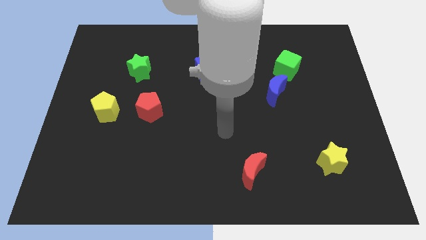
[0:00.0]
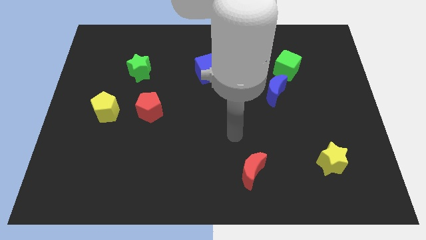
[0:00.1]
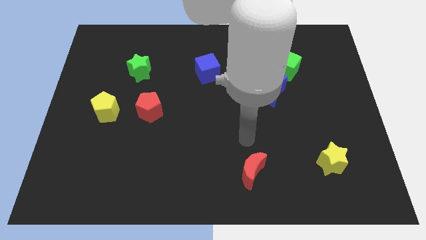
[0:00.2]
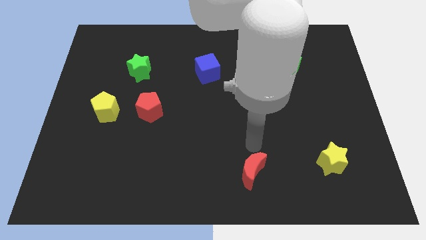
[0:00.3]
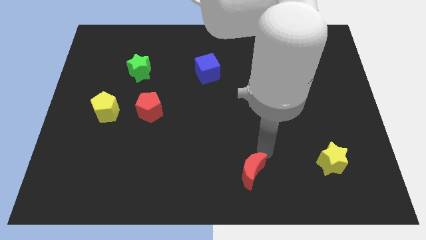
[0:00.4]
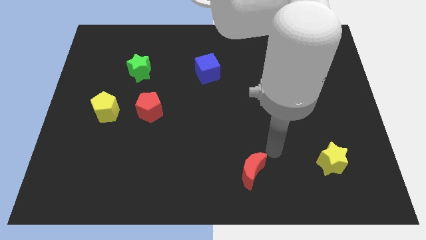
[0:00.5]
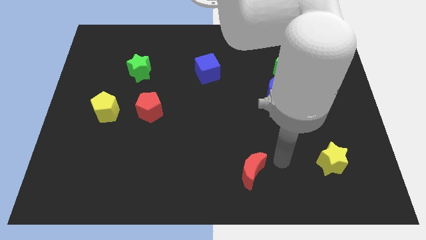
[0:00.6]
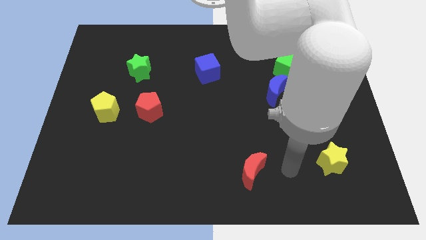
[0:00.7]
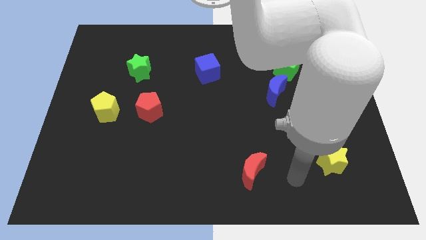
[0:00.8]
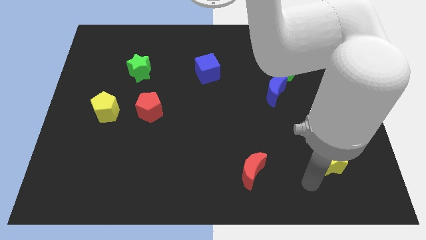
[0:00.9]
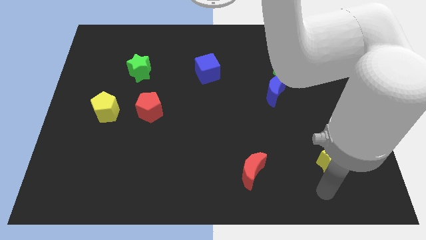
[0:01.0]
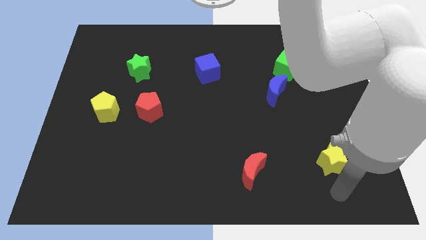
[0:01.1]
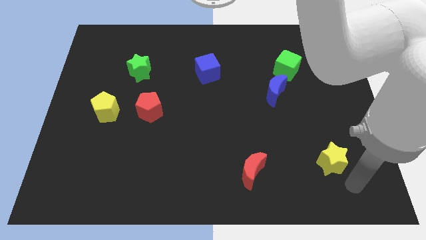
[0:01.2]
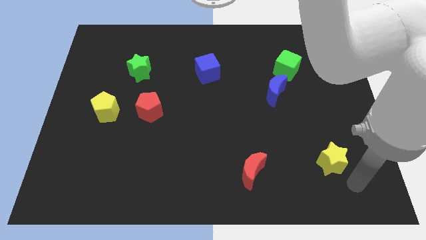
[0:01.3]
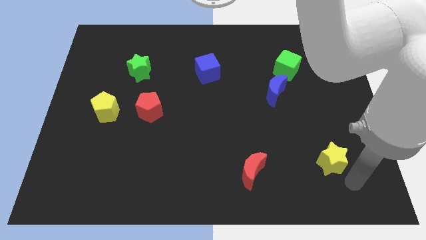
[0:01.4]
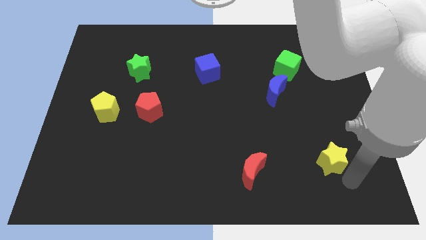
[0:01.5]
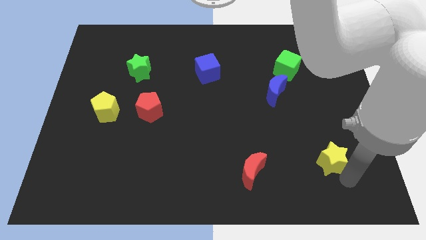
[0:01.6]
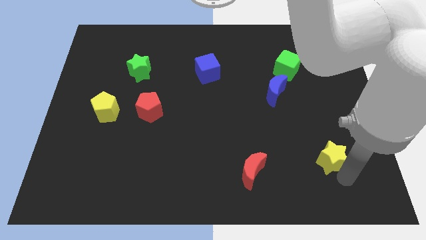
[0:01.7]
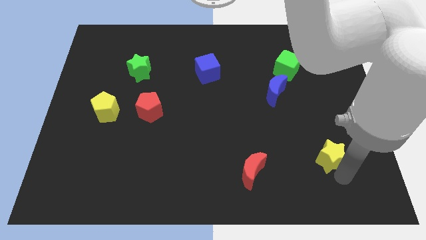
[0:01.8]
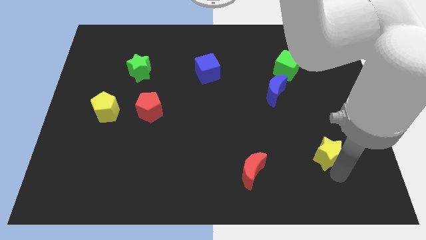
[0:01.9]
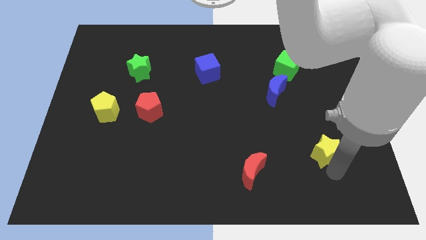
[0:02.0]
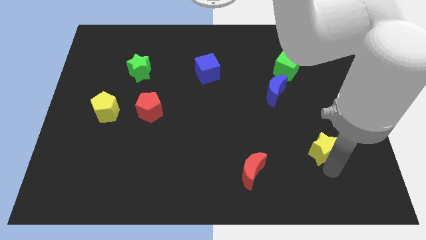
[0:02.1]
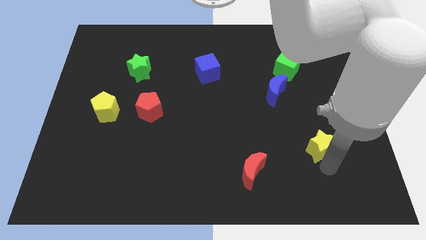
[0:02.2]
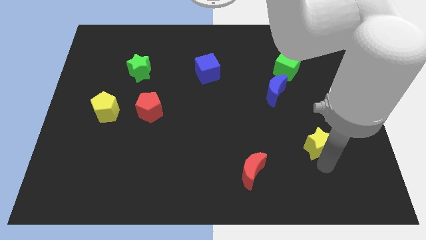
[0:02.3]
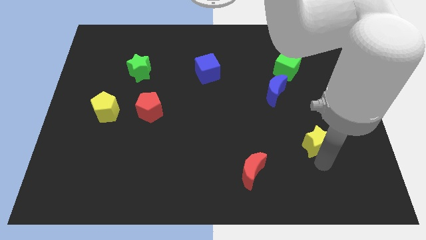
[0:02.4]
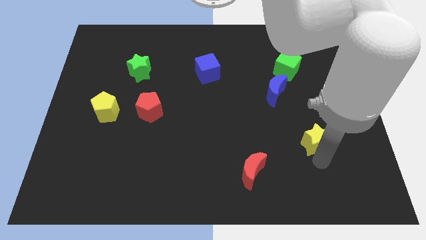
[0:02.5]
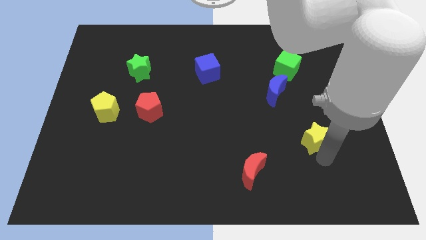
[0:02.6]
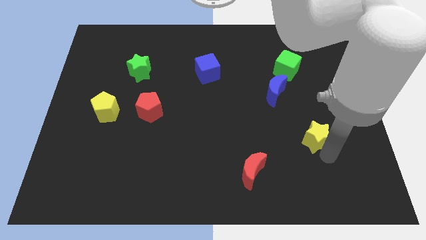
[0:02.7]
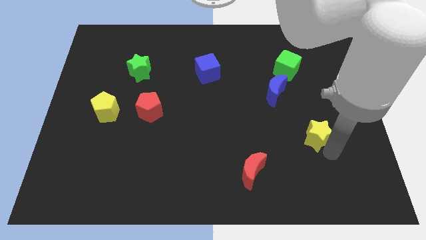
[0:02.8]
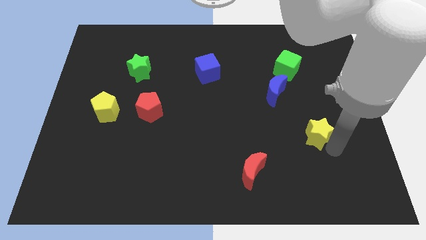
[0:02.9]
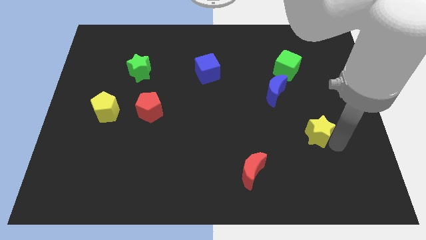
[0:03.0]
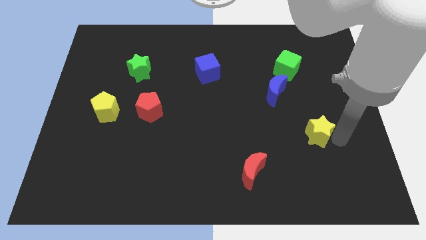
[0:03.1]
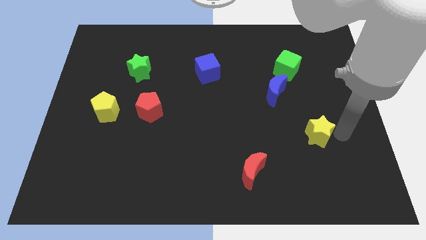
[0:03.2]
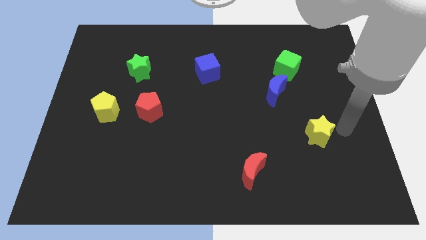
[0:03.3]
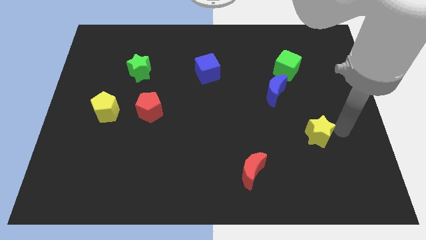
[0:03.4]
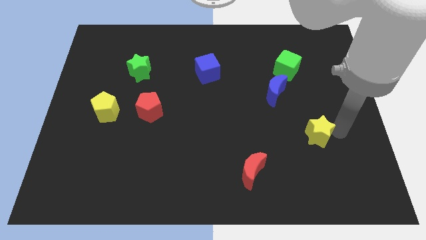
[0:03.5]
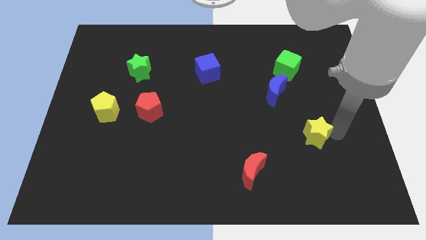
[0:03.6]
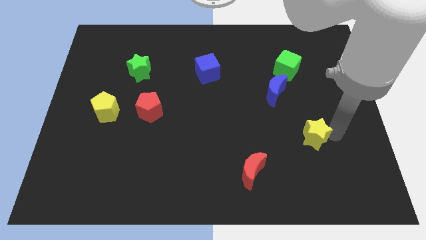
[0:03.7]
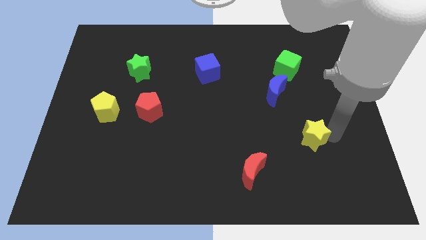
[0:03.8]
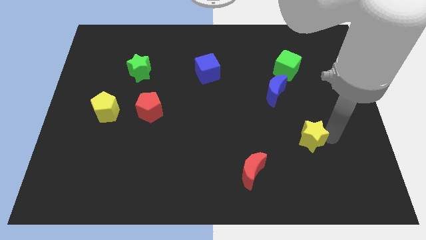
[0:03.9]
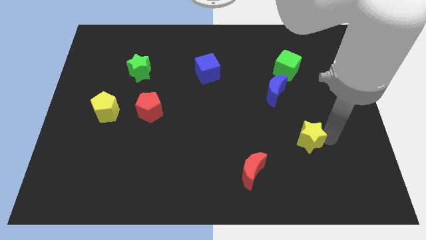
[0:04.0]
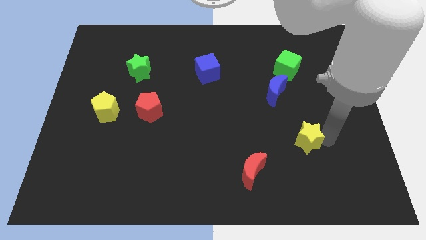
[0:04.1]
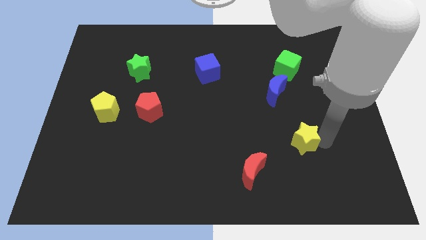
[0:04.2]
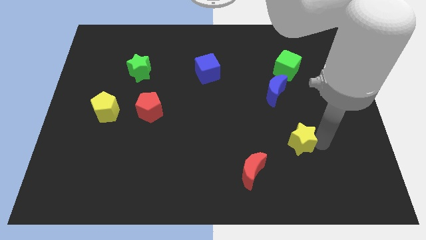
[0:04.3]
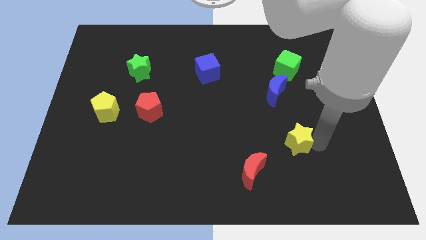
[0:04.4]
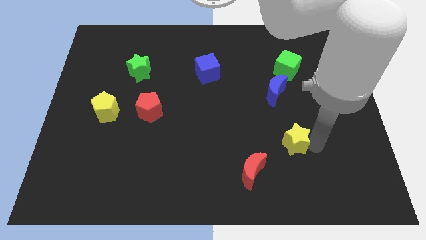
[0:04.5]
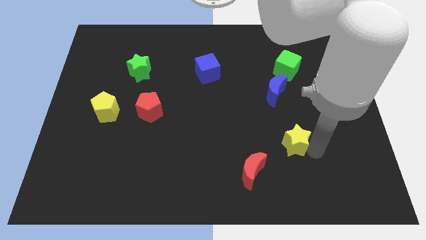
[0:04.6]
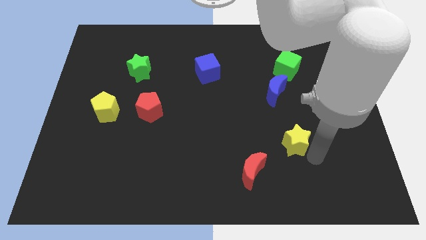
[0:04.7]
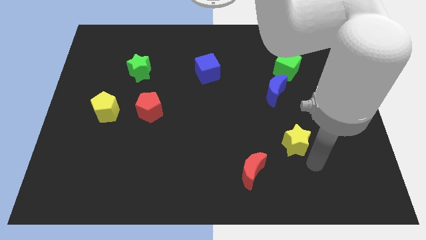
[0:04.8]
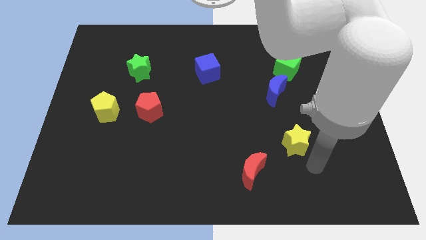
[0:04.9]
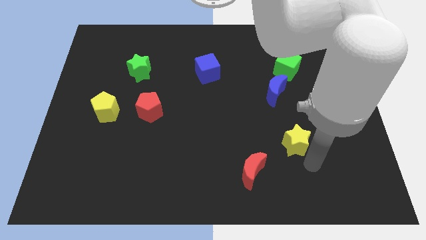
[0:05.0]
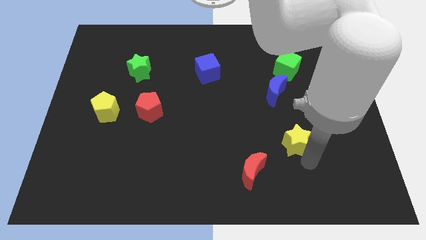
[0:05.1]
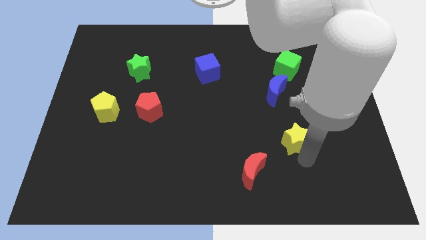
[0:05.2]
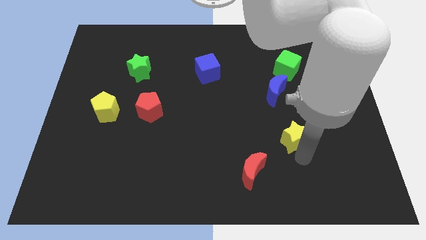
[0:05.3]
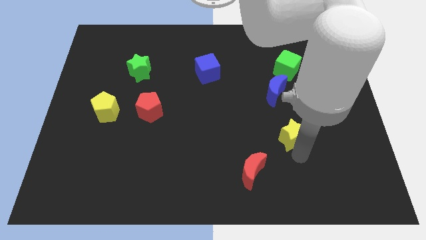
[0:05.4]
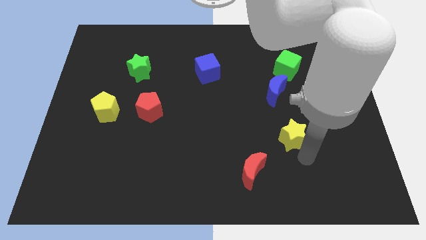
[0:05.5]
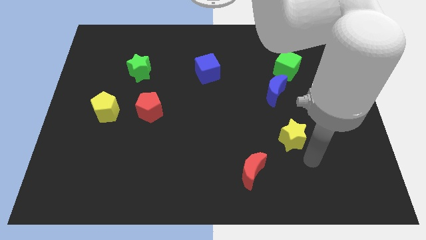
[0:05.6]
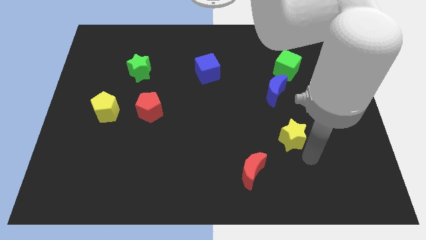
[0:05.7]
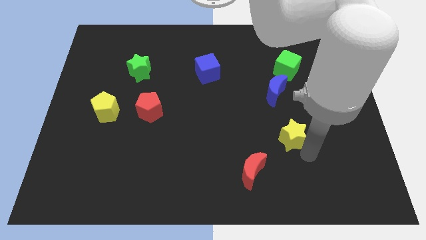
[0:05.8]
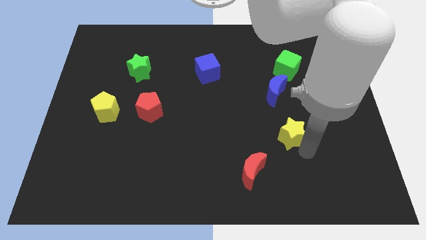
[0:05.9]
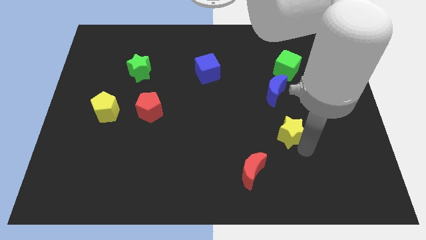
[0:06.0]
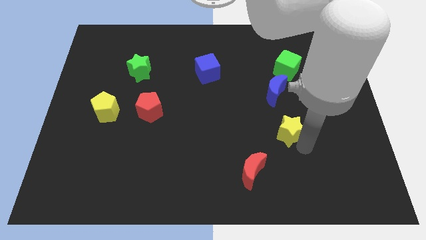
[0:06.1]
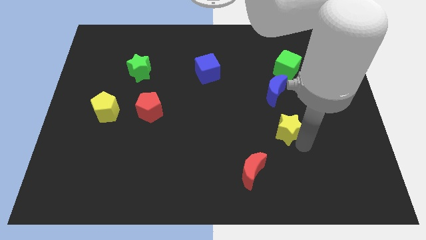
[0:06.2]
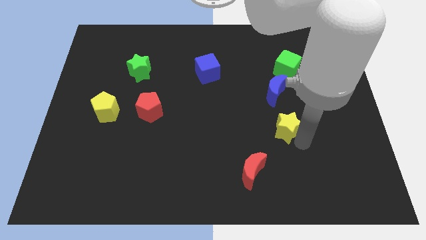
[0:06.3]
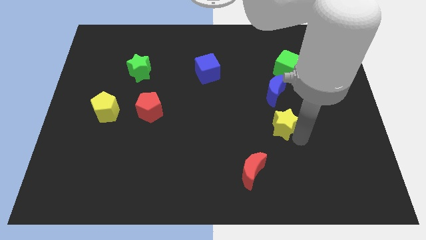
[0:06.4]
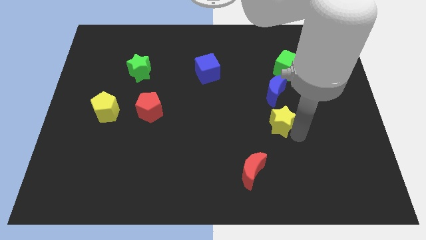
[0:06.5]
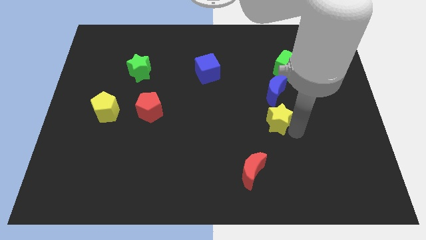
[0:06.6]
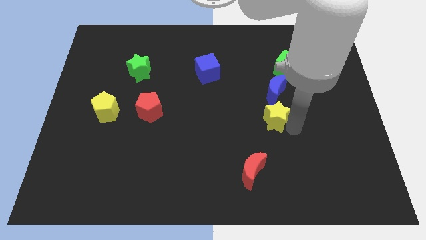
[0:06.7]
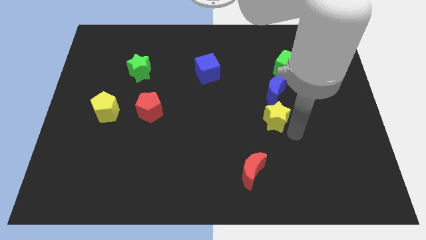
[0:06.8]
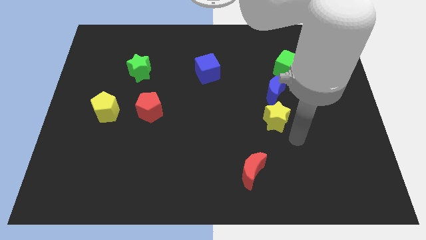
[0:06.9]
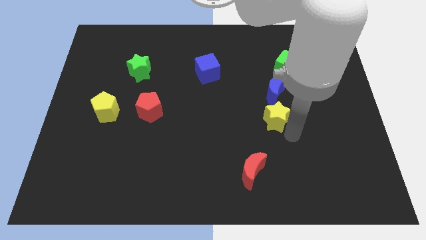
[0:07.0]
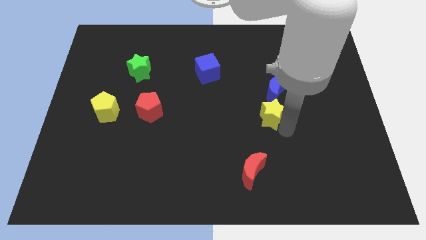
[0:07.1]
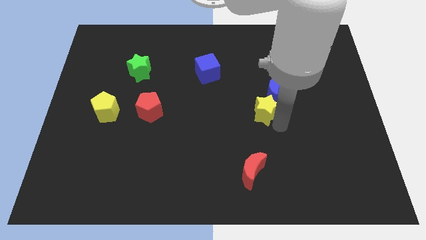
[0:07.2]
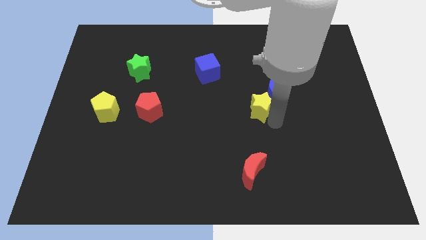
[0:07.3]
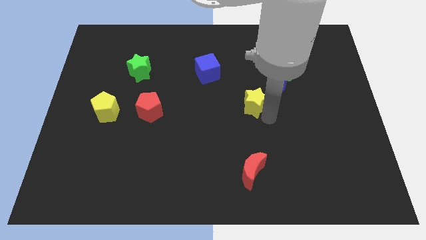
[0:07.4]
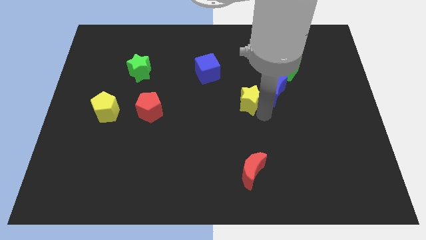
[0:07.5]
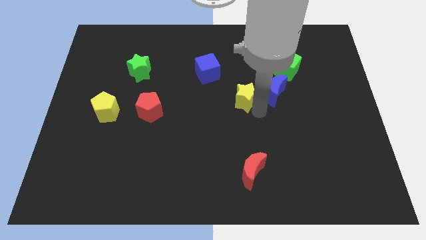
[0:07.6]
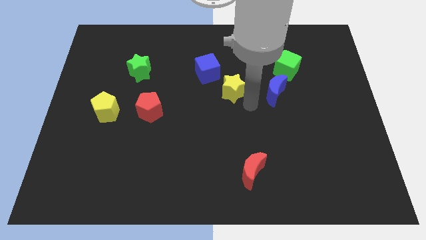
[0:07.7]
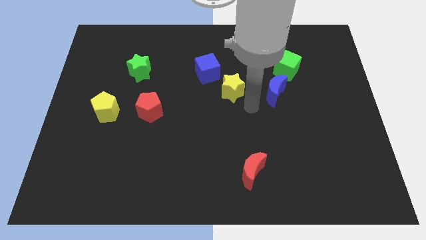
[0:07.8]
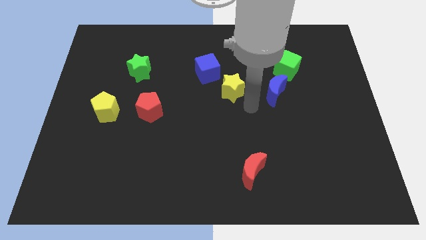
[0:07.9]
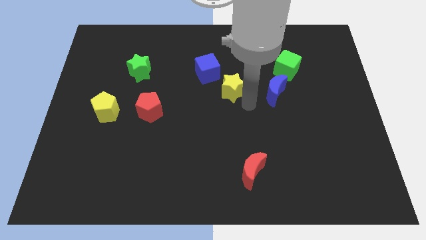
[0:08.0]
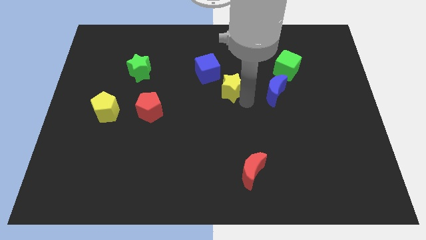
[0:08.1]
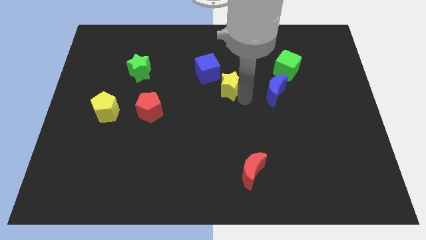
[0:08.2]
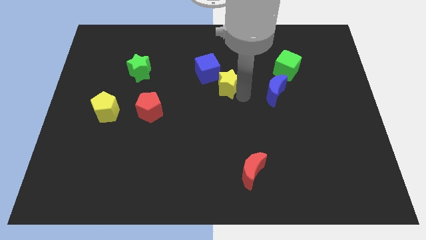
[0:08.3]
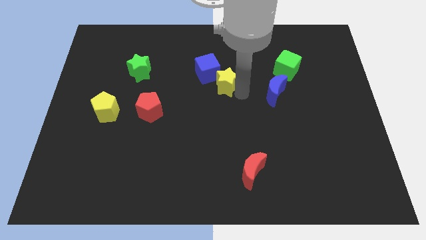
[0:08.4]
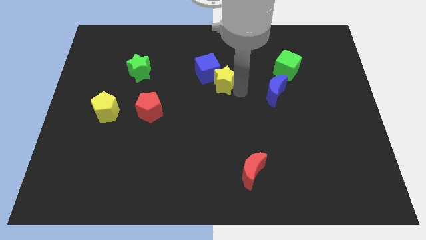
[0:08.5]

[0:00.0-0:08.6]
put the yellow star towards the blue cube
